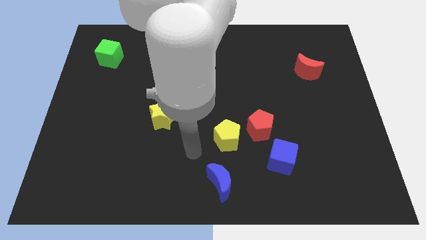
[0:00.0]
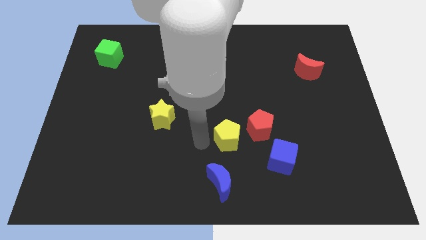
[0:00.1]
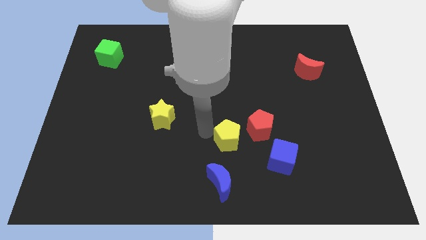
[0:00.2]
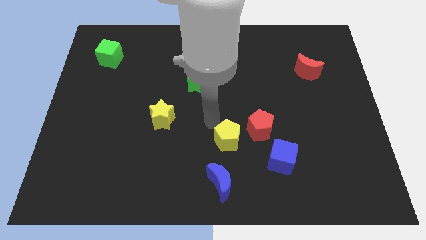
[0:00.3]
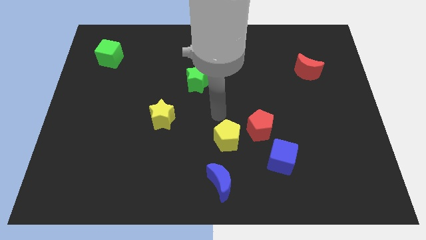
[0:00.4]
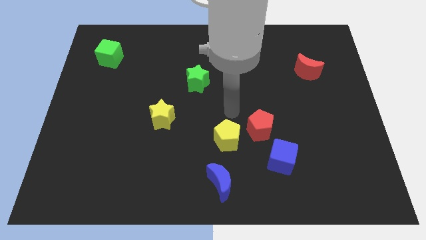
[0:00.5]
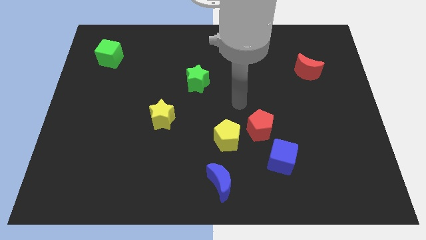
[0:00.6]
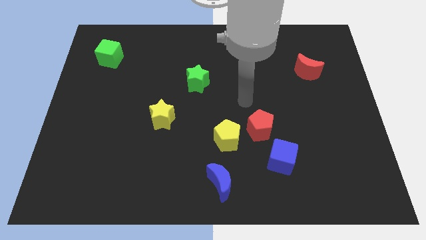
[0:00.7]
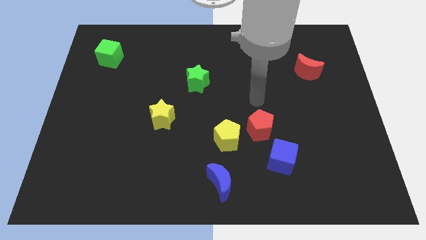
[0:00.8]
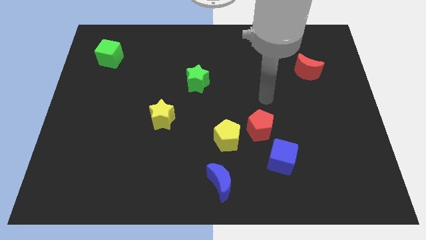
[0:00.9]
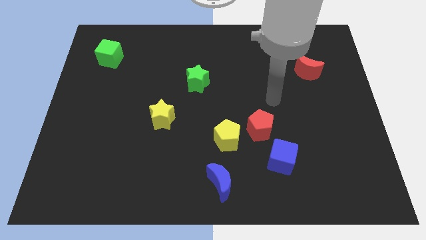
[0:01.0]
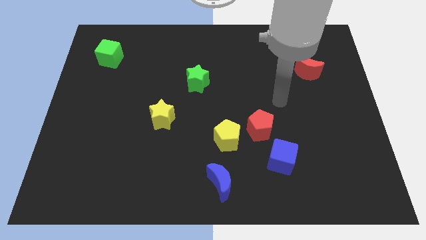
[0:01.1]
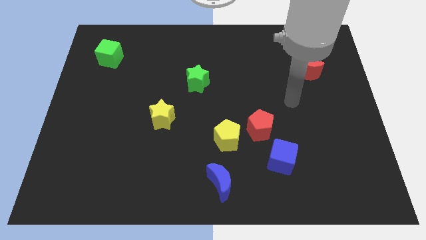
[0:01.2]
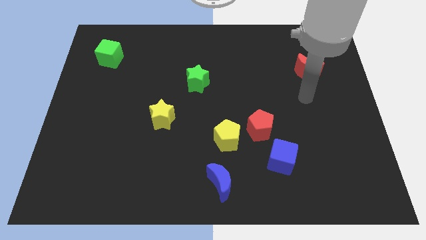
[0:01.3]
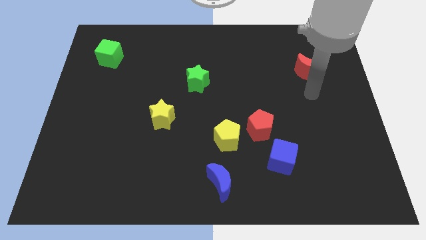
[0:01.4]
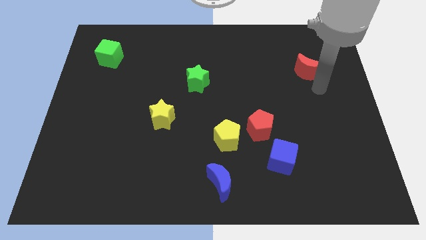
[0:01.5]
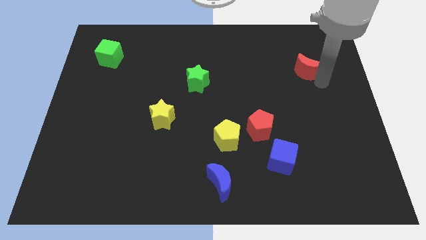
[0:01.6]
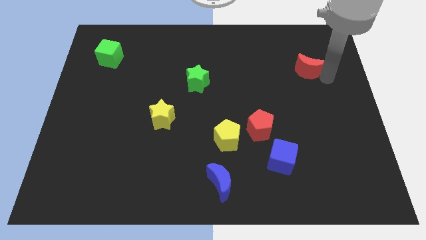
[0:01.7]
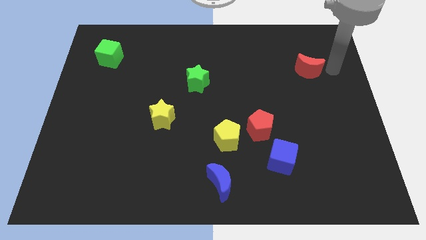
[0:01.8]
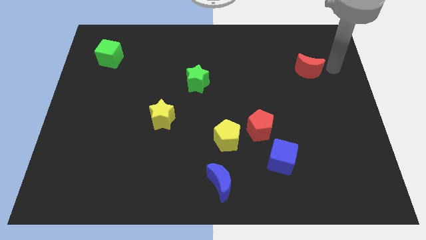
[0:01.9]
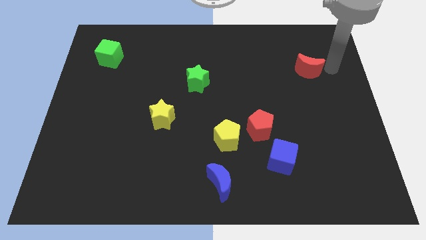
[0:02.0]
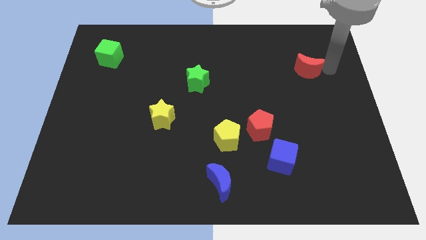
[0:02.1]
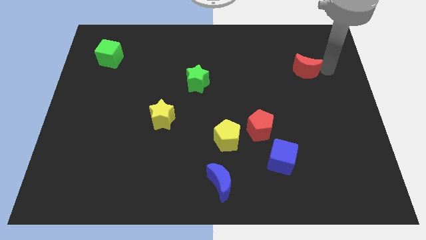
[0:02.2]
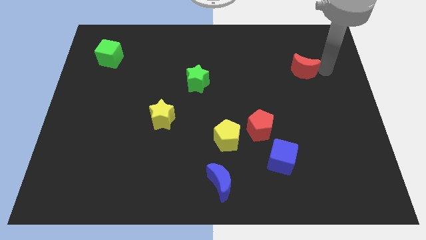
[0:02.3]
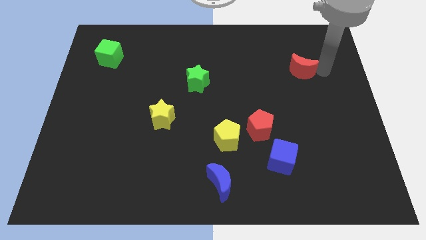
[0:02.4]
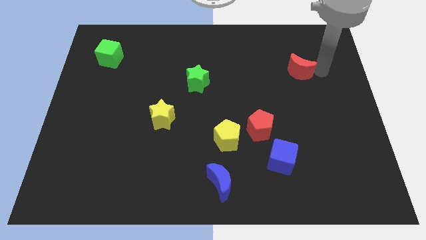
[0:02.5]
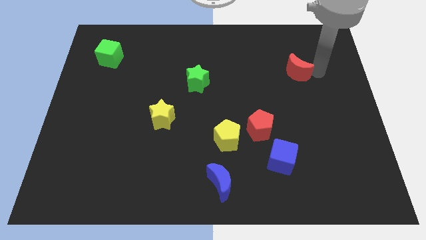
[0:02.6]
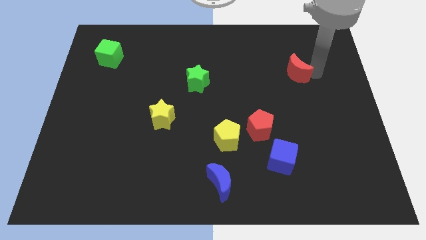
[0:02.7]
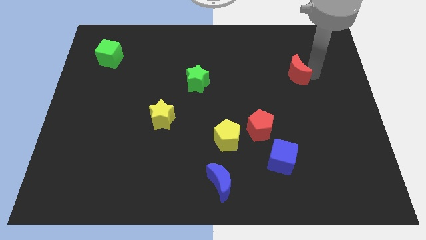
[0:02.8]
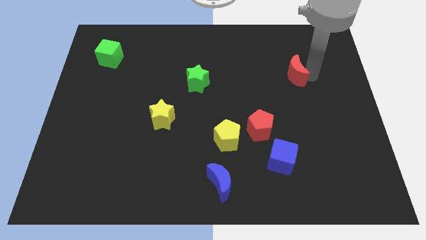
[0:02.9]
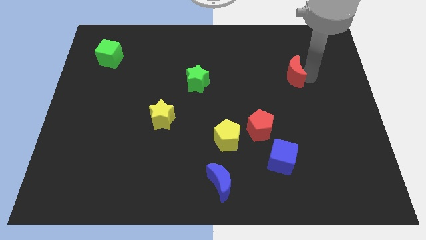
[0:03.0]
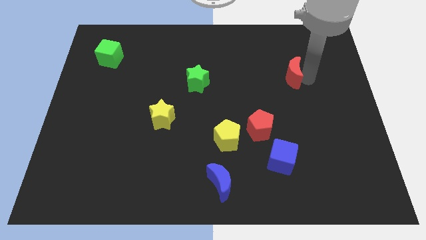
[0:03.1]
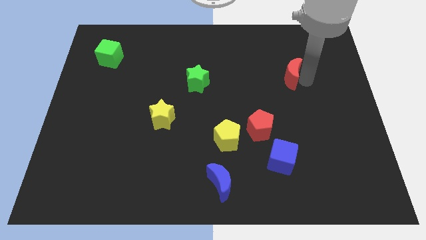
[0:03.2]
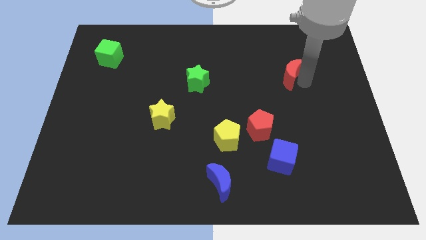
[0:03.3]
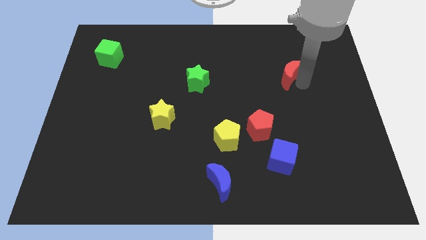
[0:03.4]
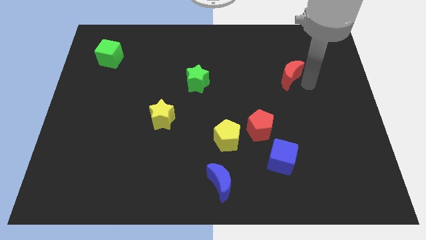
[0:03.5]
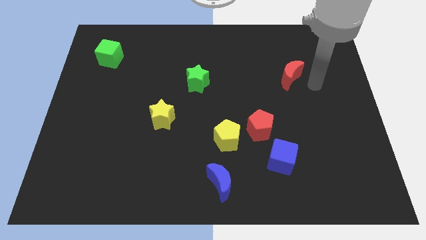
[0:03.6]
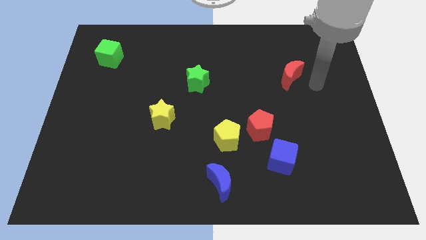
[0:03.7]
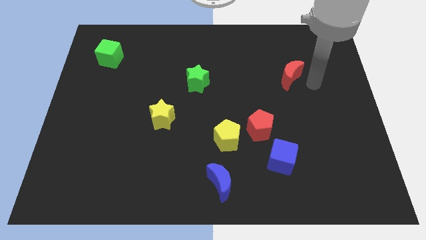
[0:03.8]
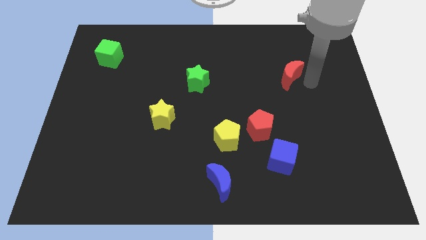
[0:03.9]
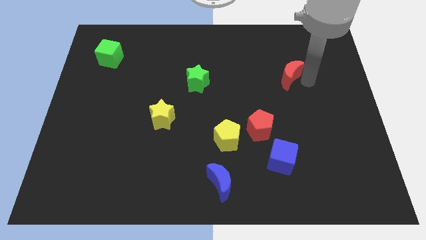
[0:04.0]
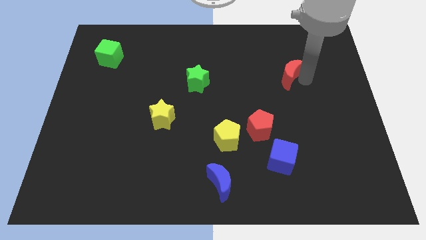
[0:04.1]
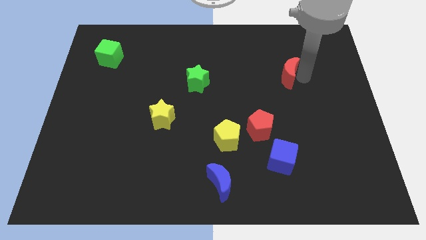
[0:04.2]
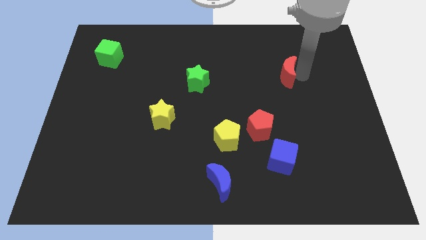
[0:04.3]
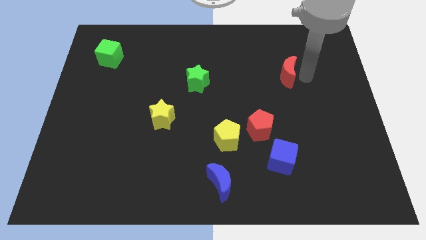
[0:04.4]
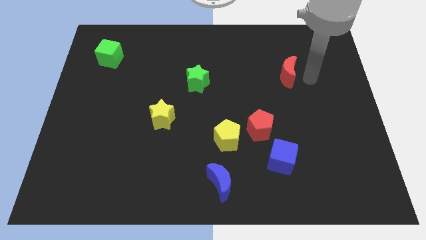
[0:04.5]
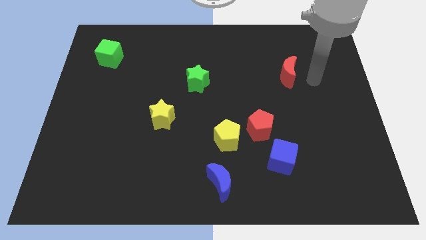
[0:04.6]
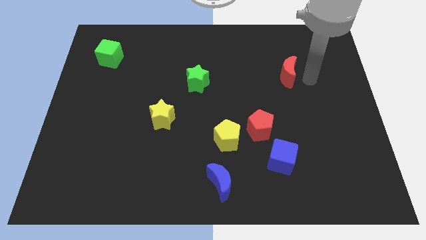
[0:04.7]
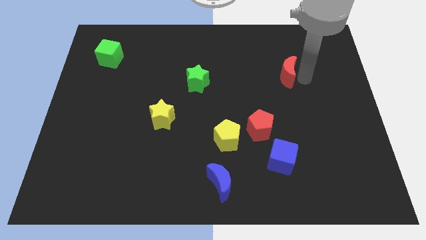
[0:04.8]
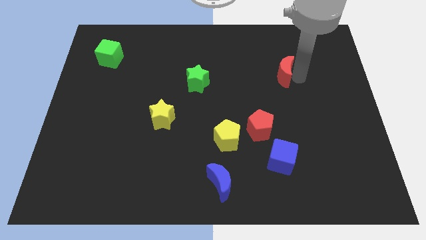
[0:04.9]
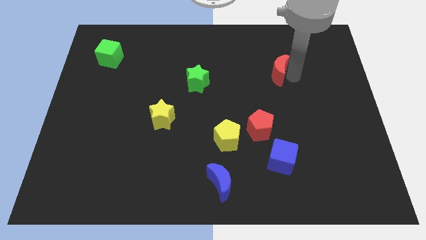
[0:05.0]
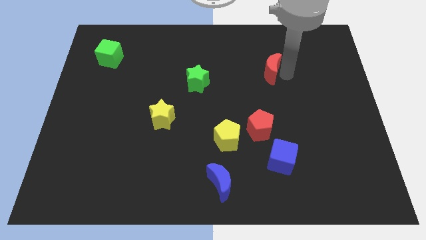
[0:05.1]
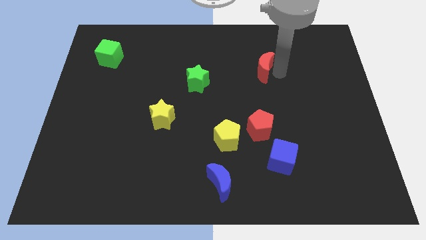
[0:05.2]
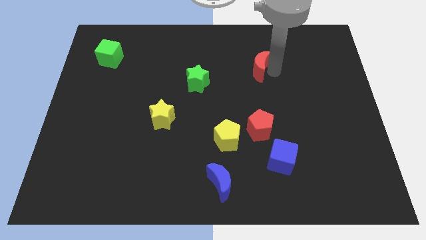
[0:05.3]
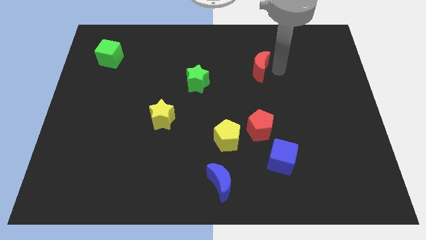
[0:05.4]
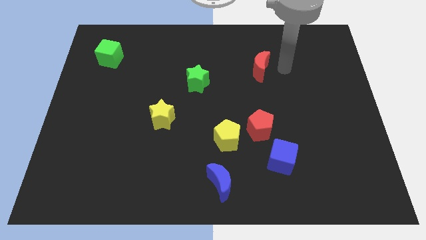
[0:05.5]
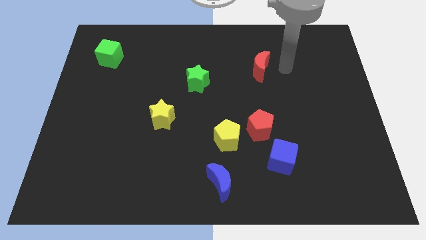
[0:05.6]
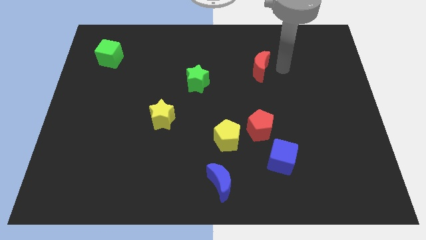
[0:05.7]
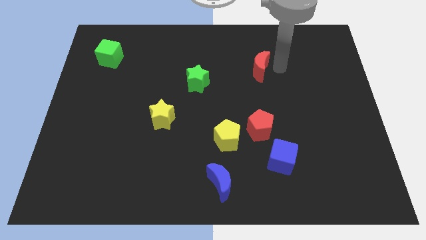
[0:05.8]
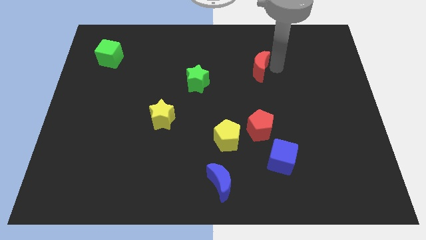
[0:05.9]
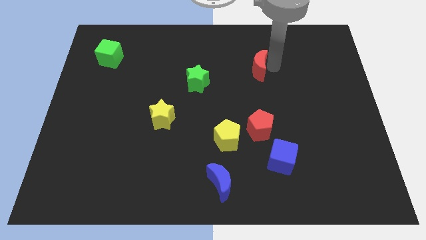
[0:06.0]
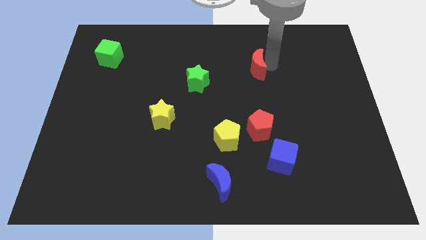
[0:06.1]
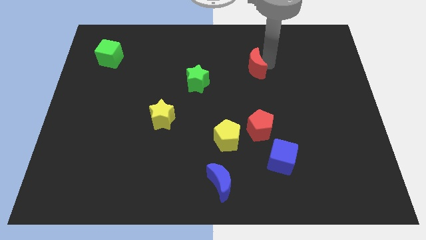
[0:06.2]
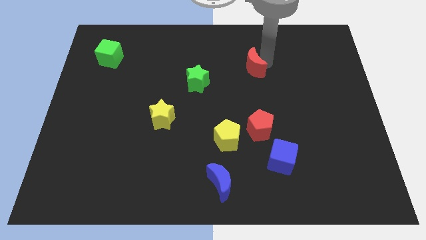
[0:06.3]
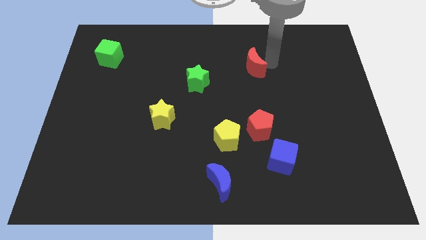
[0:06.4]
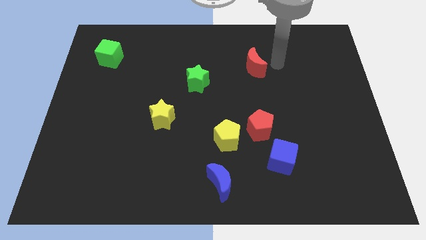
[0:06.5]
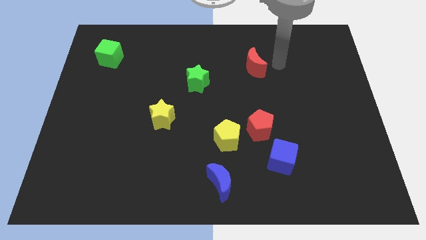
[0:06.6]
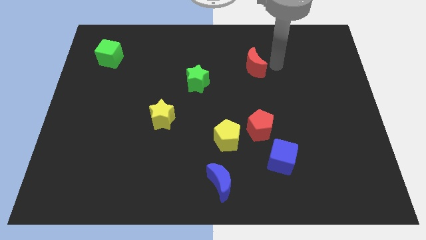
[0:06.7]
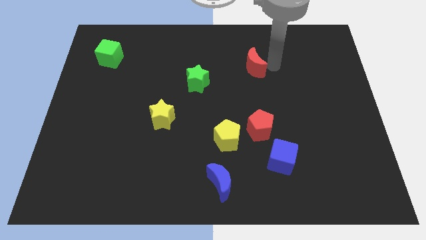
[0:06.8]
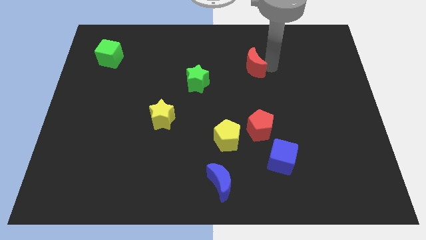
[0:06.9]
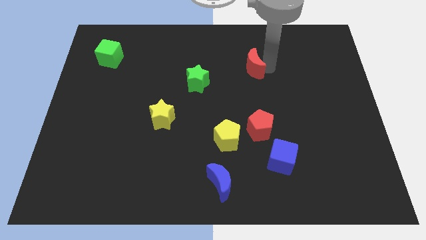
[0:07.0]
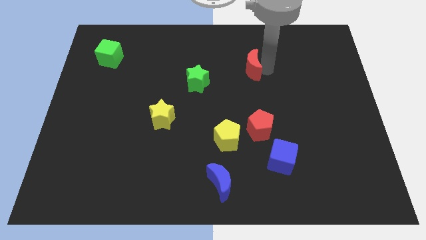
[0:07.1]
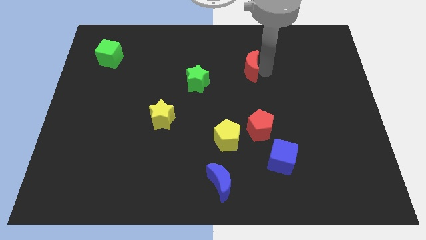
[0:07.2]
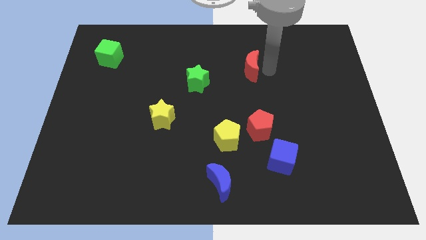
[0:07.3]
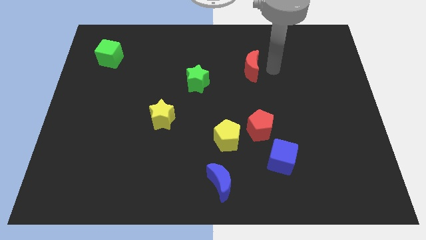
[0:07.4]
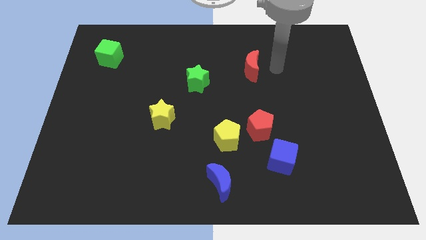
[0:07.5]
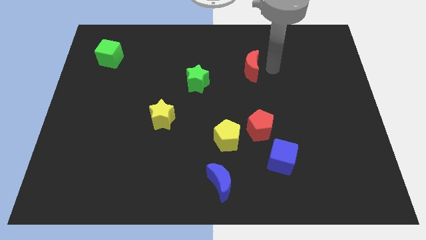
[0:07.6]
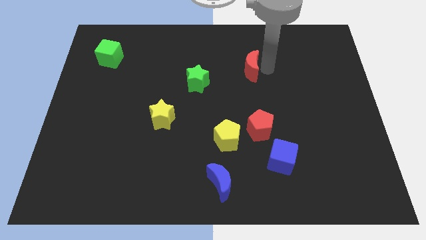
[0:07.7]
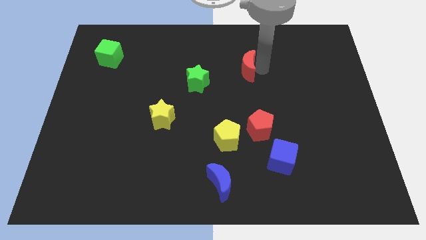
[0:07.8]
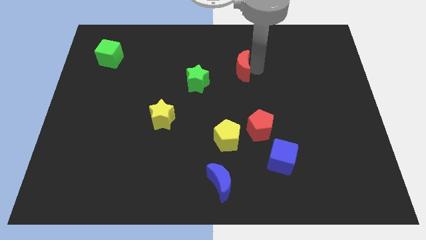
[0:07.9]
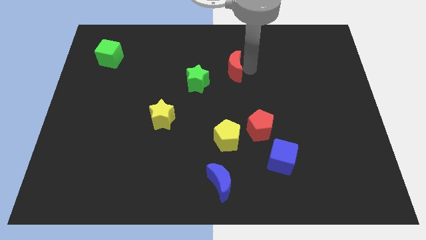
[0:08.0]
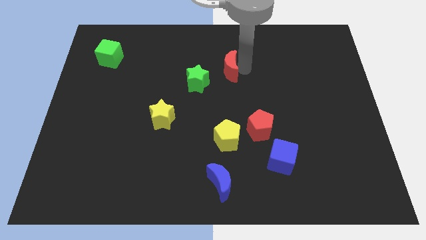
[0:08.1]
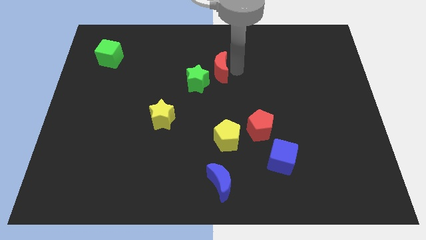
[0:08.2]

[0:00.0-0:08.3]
push the red moon to the left
